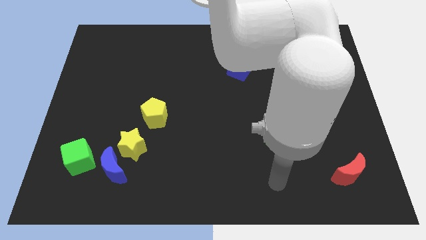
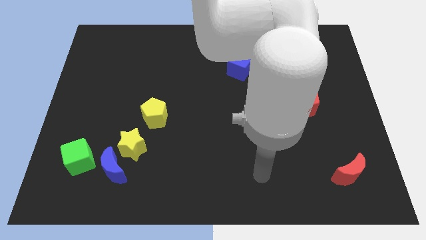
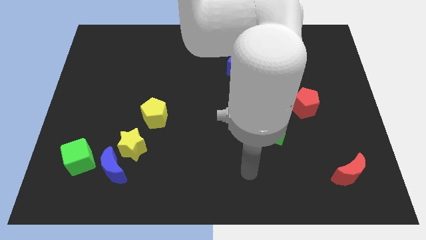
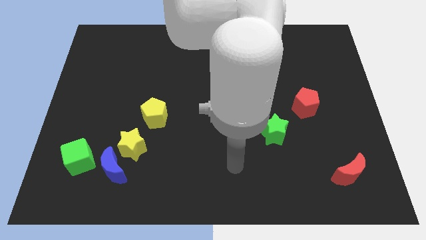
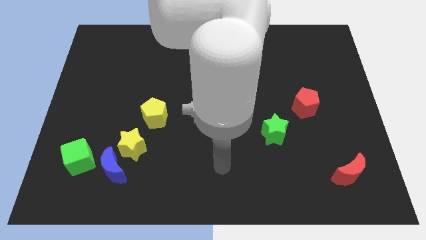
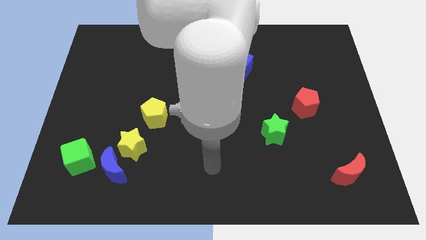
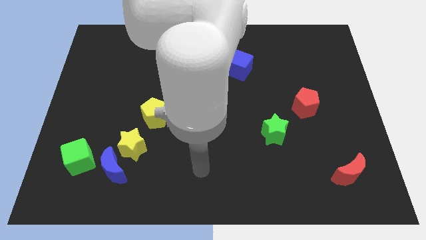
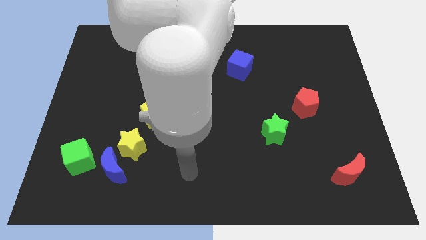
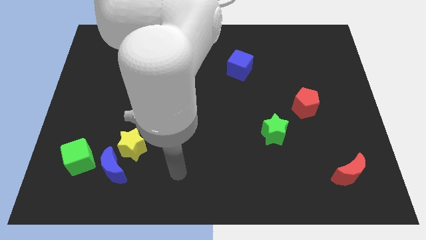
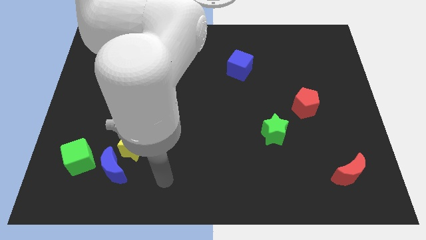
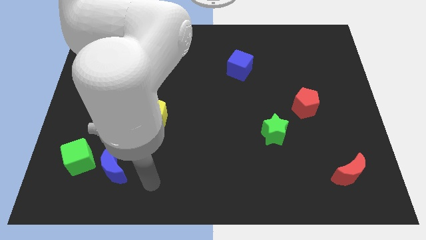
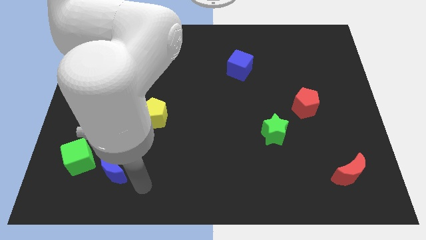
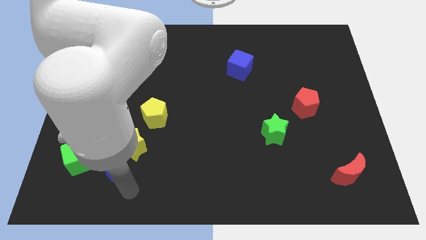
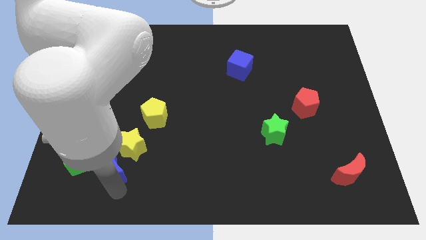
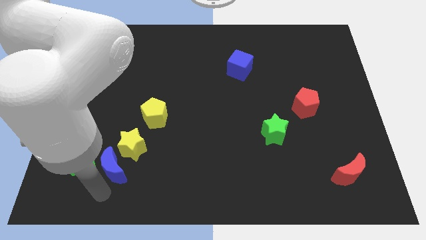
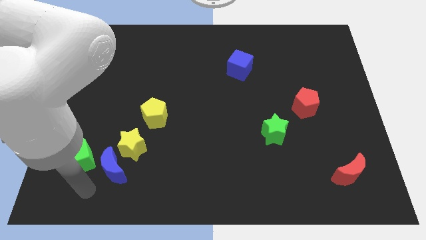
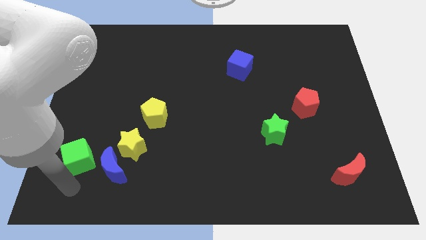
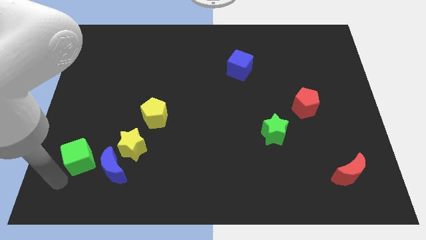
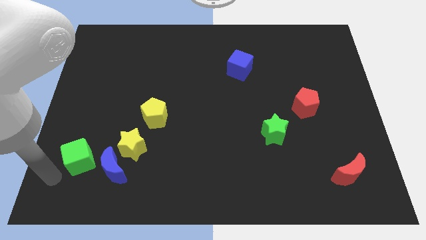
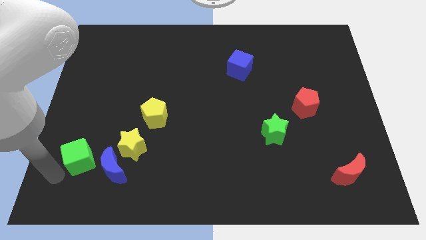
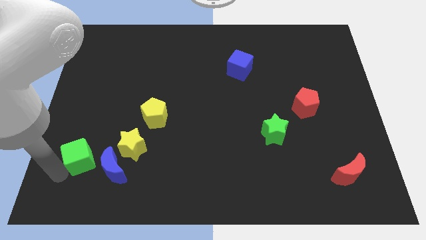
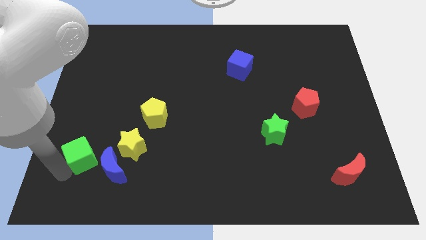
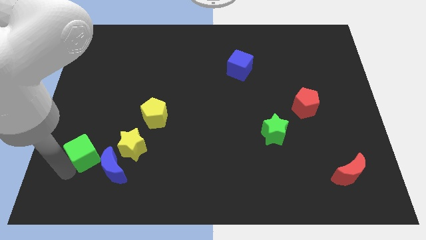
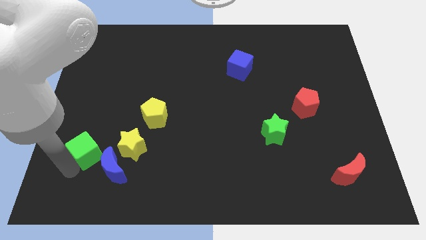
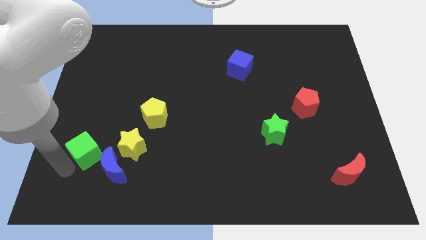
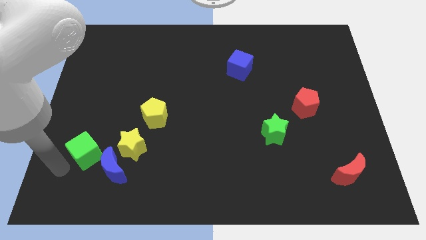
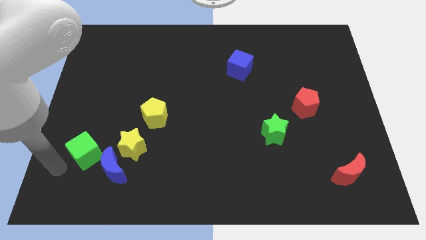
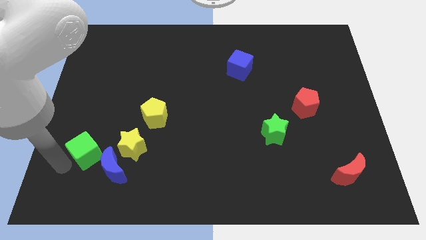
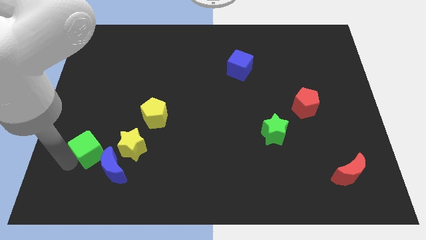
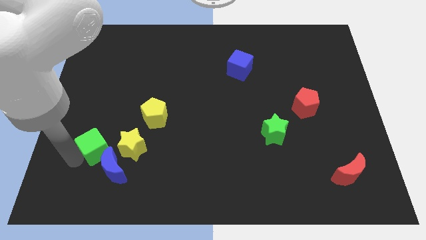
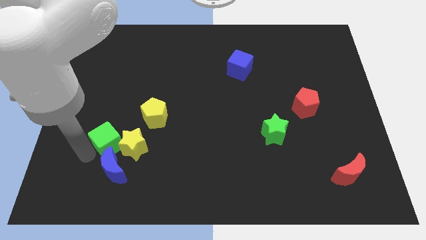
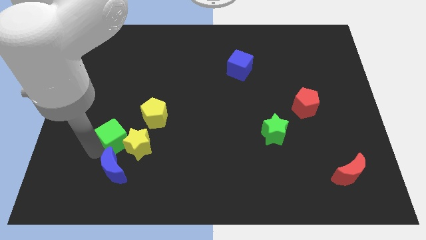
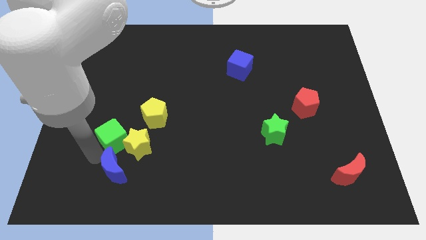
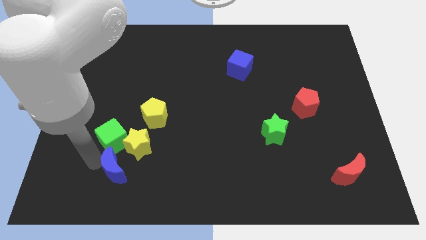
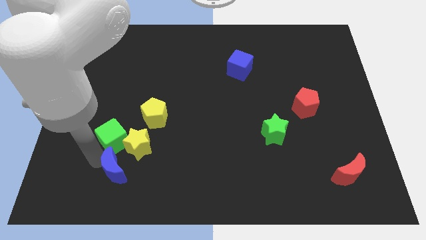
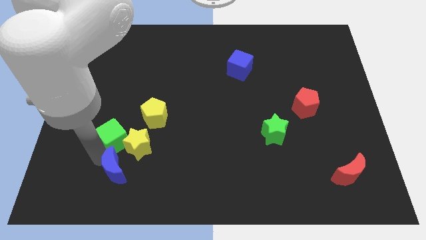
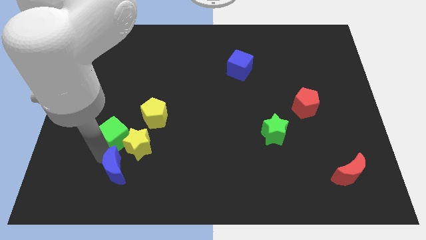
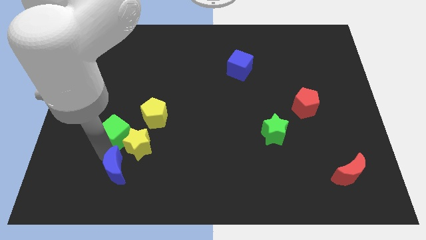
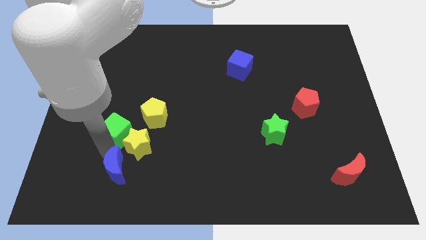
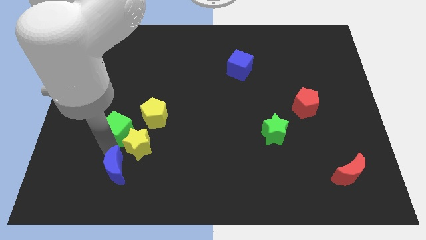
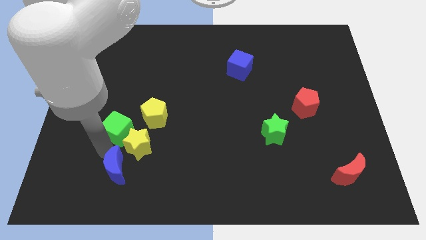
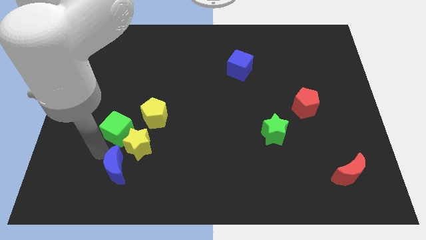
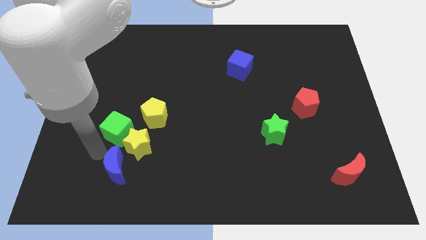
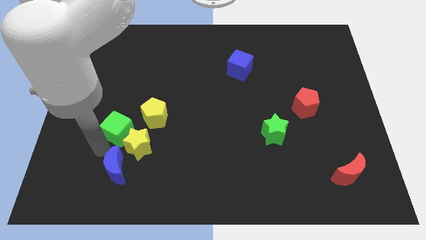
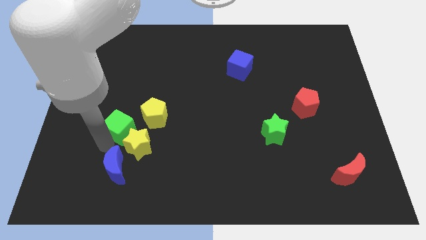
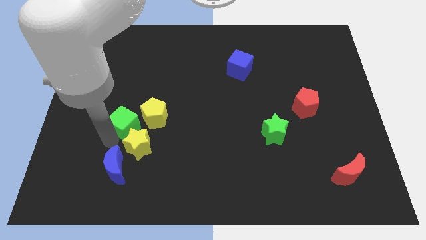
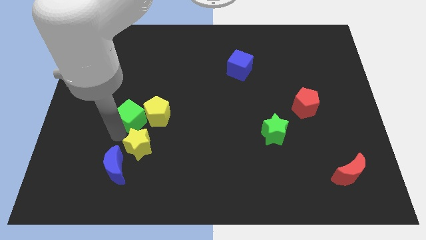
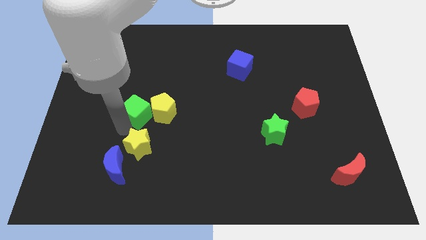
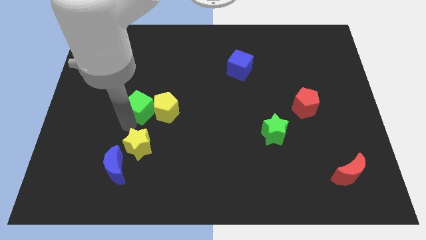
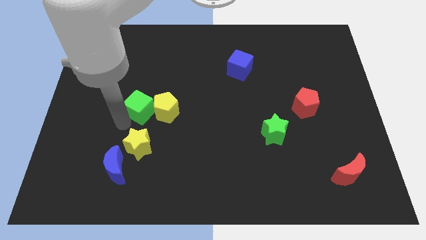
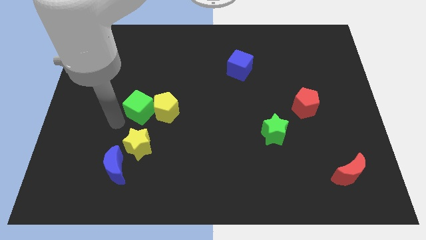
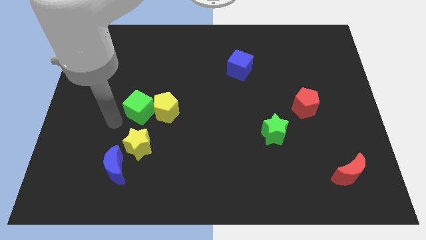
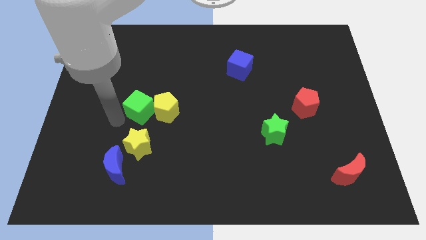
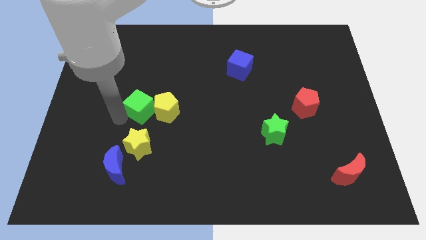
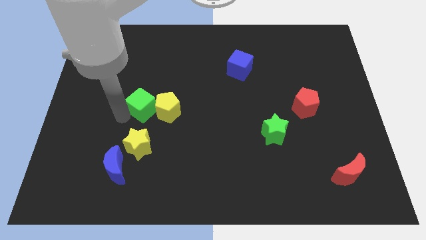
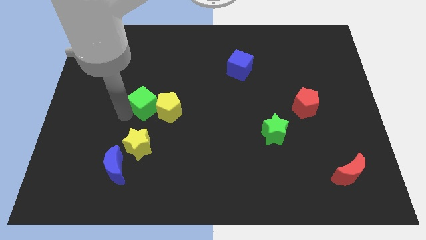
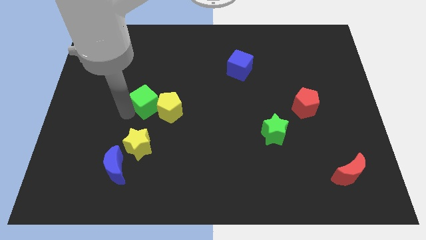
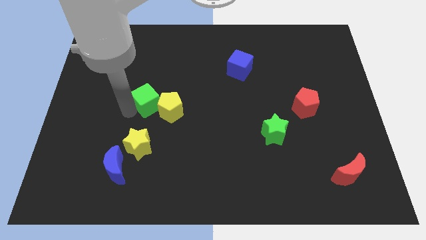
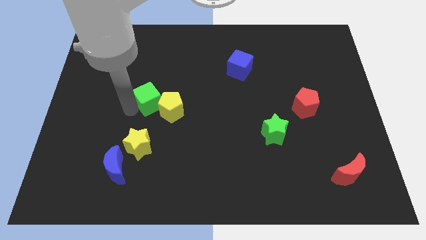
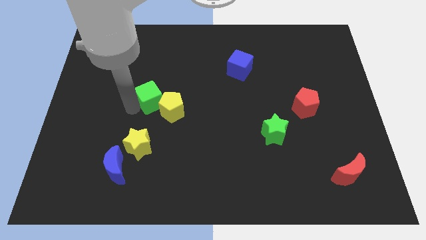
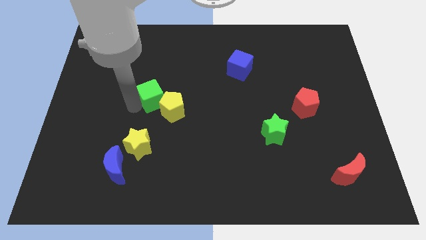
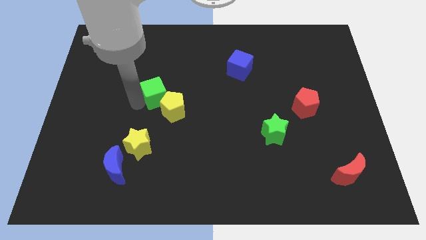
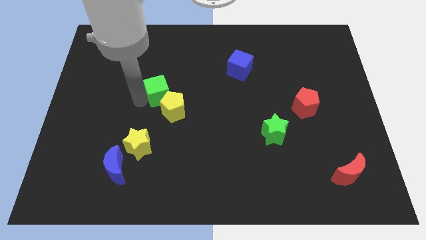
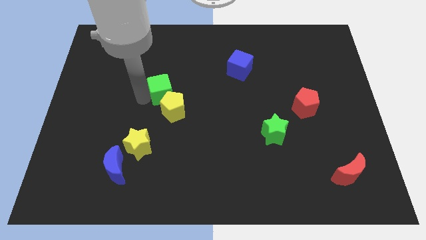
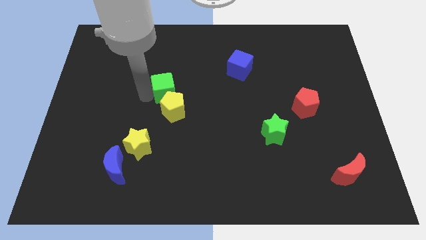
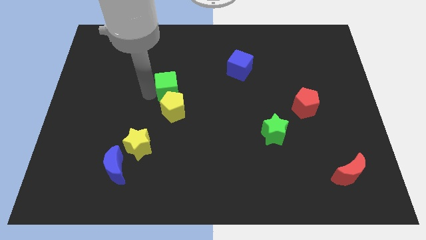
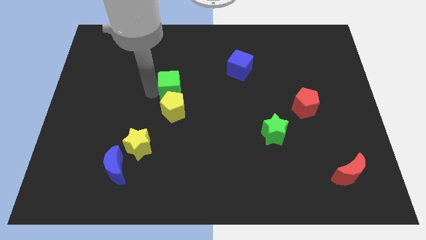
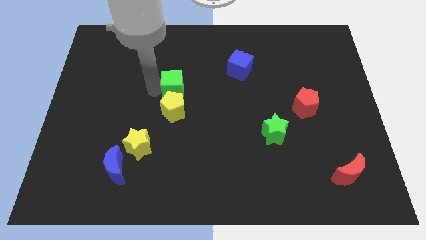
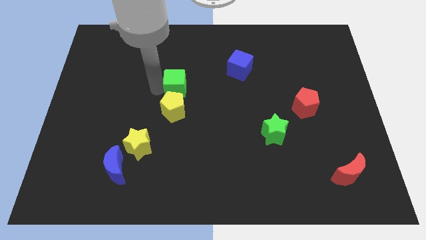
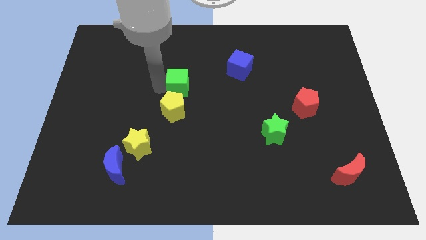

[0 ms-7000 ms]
move the green cube to the top right side of the yellow pentagon

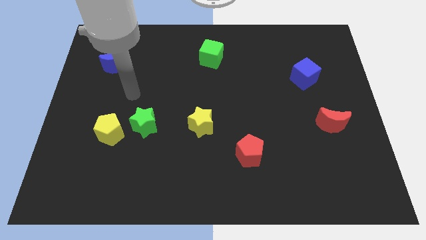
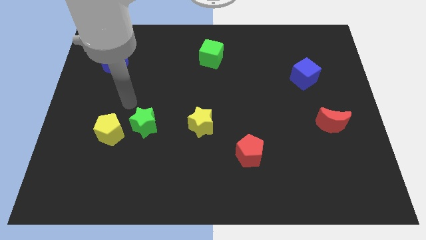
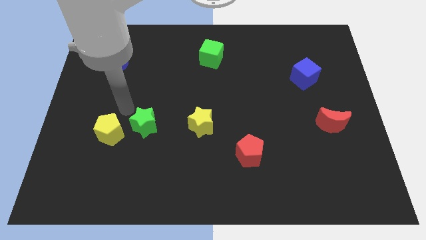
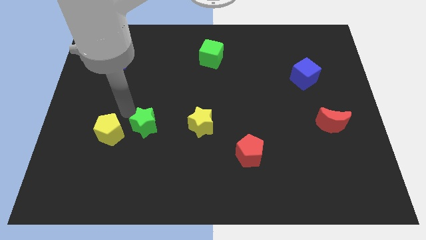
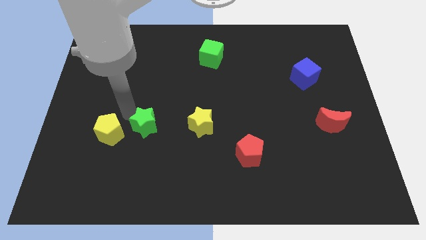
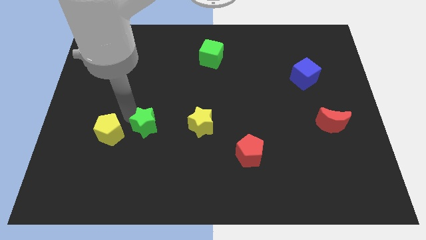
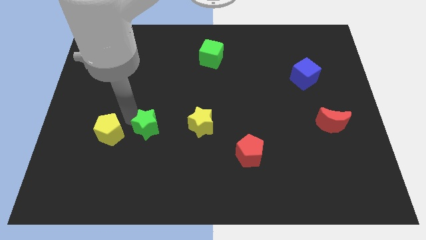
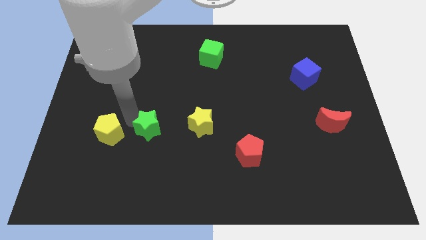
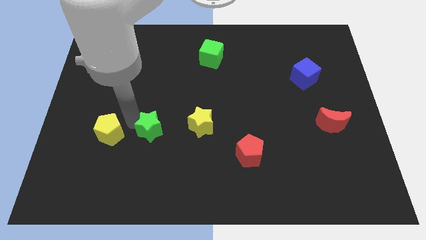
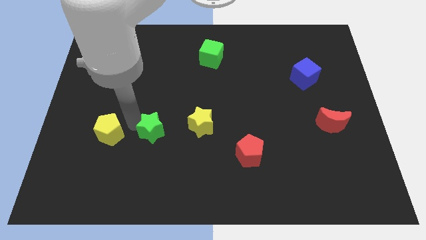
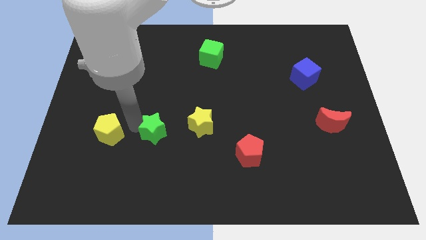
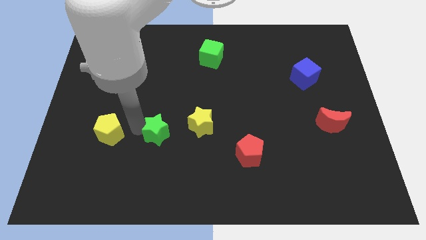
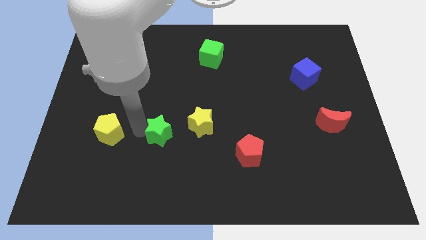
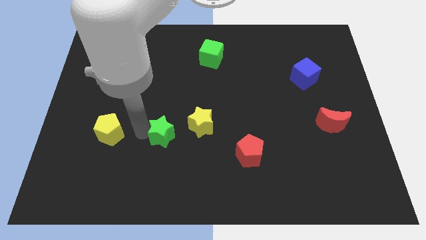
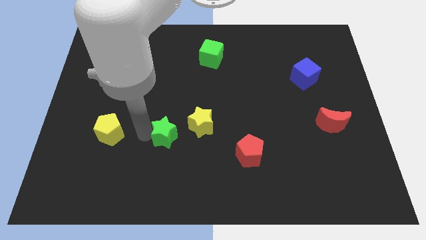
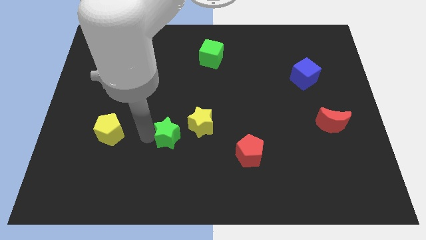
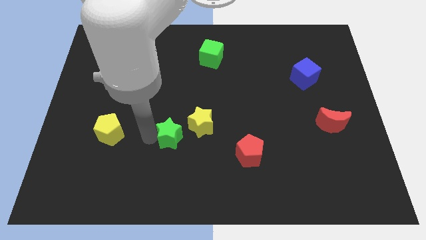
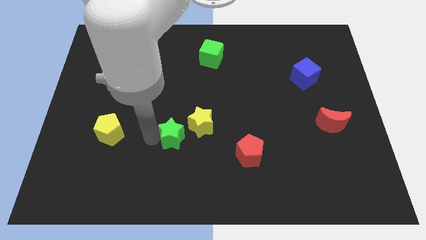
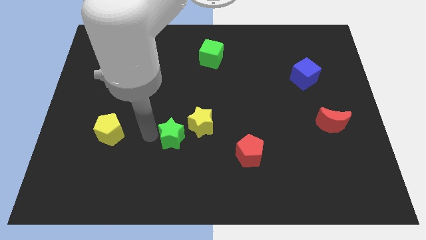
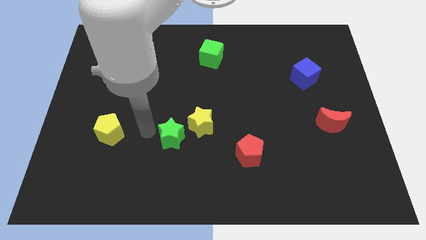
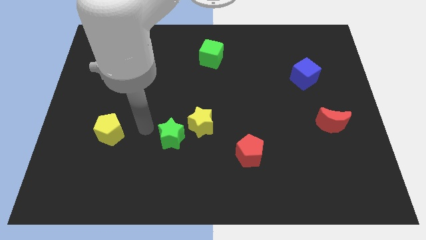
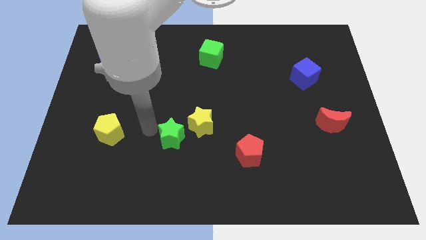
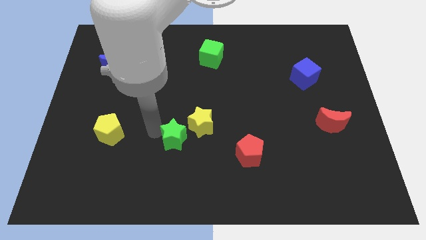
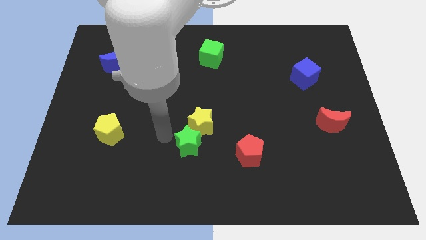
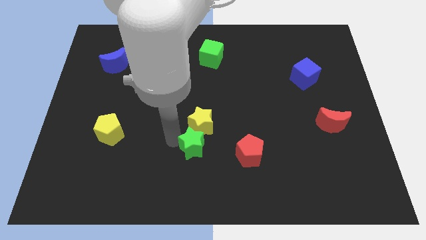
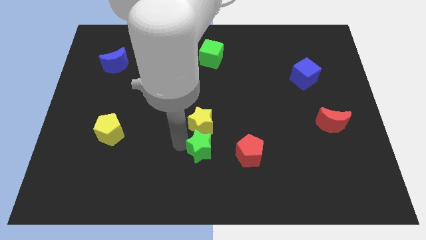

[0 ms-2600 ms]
slide the green star diagonally down and to the right of the yellow star
